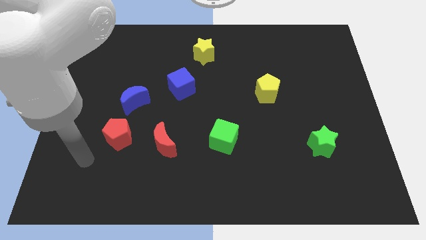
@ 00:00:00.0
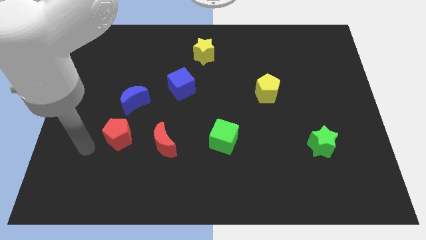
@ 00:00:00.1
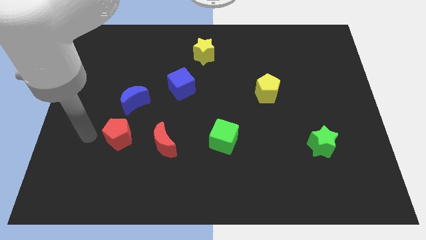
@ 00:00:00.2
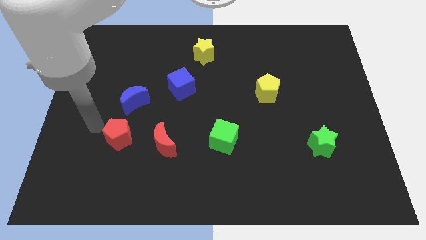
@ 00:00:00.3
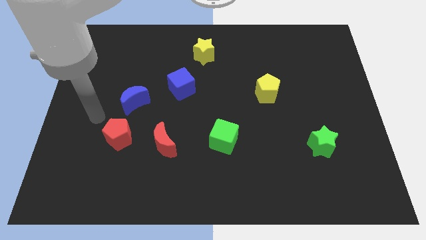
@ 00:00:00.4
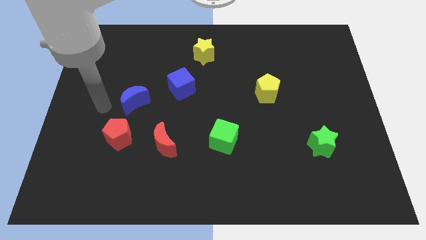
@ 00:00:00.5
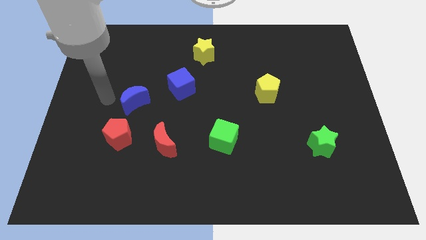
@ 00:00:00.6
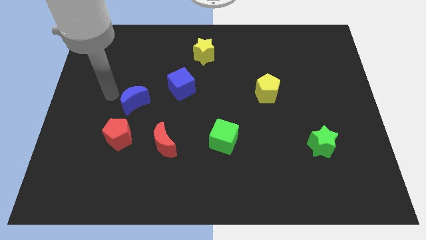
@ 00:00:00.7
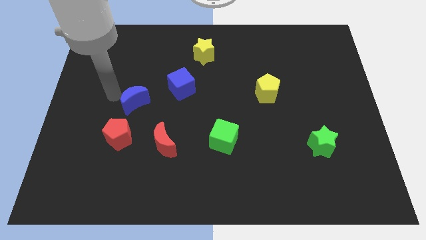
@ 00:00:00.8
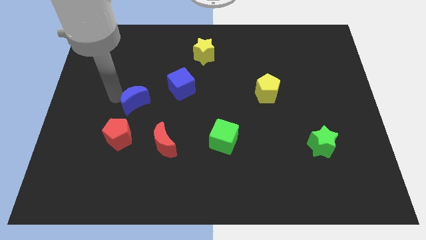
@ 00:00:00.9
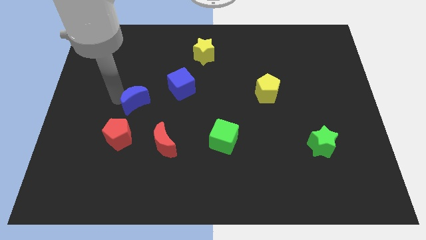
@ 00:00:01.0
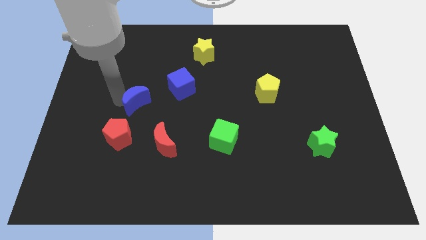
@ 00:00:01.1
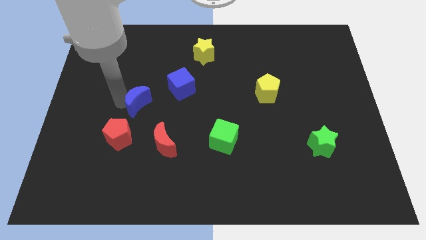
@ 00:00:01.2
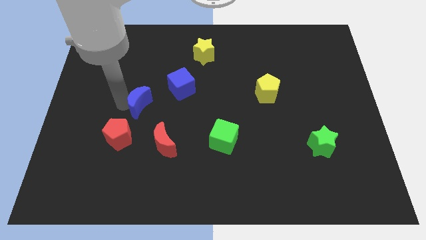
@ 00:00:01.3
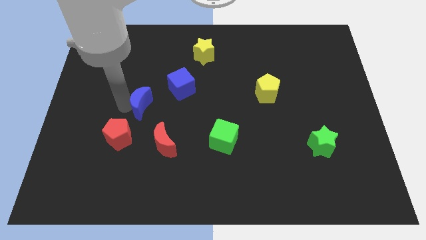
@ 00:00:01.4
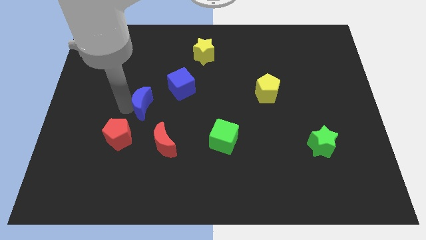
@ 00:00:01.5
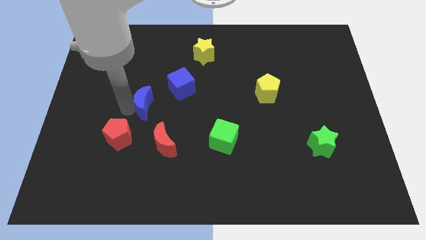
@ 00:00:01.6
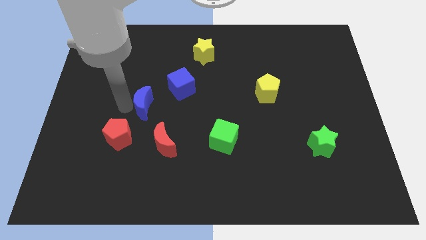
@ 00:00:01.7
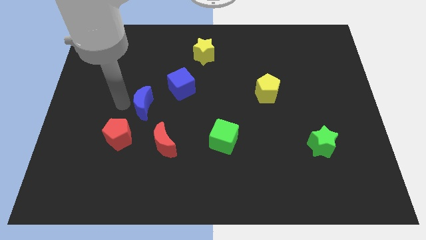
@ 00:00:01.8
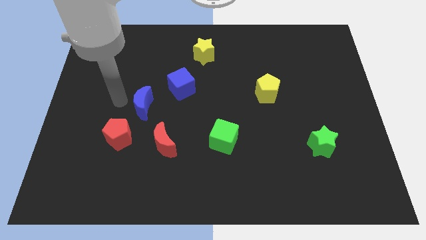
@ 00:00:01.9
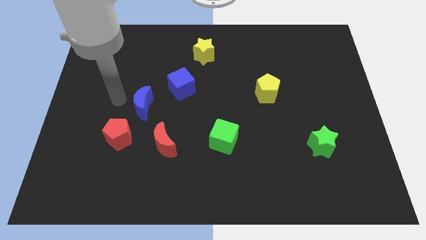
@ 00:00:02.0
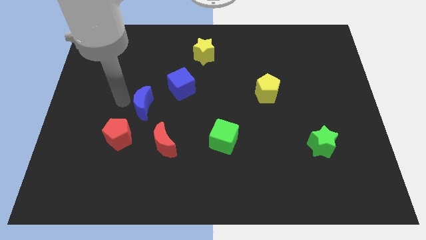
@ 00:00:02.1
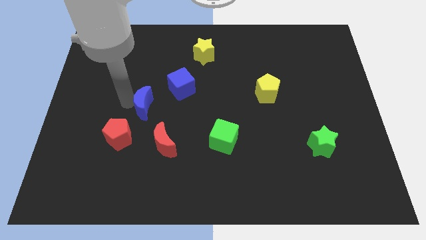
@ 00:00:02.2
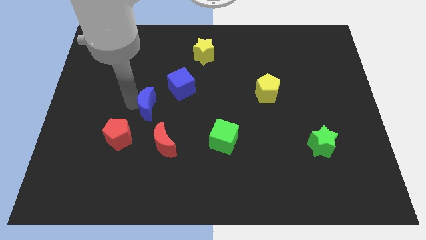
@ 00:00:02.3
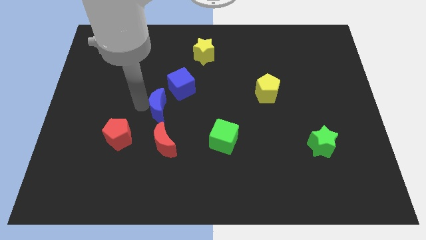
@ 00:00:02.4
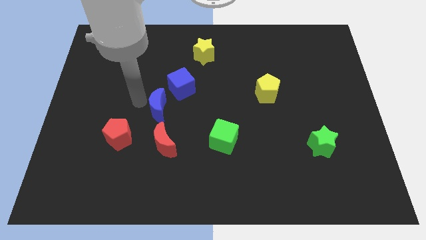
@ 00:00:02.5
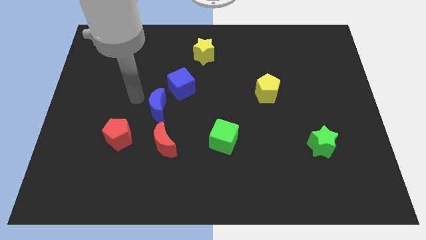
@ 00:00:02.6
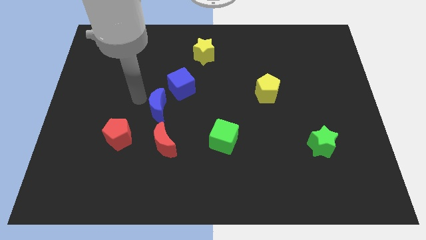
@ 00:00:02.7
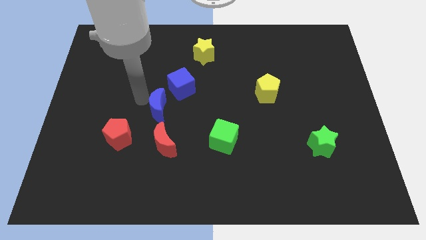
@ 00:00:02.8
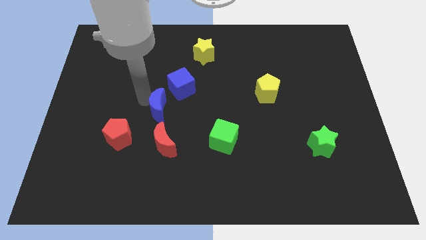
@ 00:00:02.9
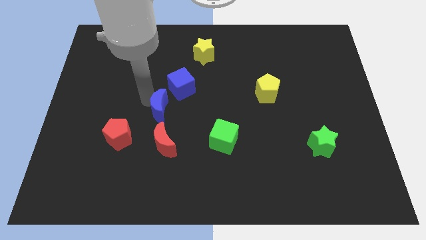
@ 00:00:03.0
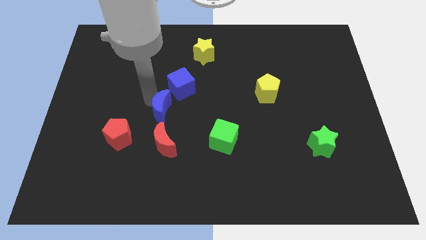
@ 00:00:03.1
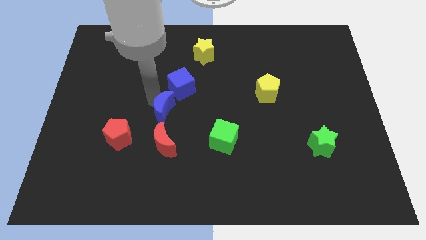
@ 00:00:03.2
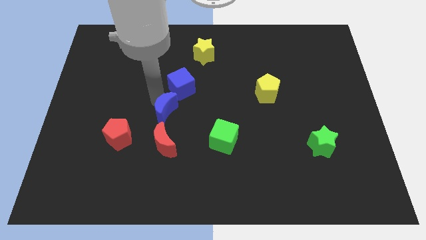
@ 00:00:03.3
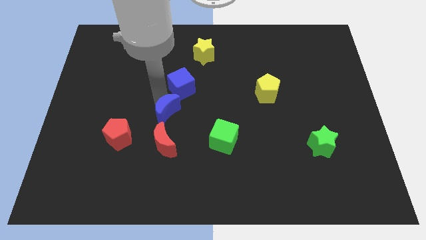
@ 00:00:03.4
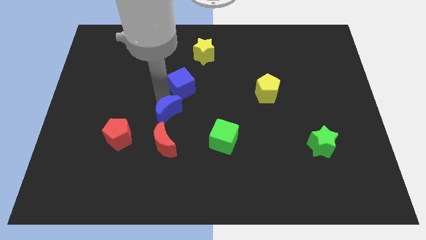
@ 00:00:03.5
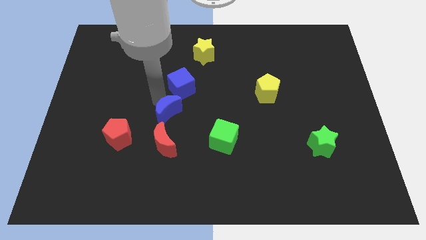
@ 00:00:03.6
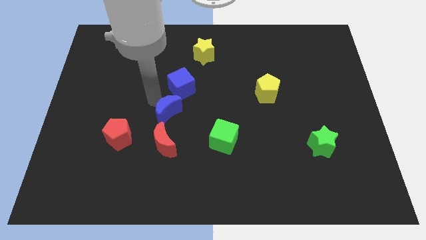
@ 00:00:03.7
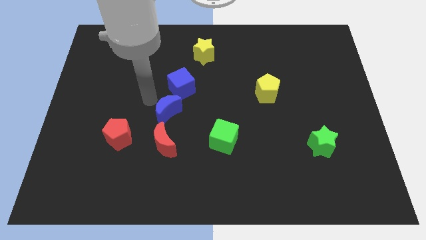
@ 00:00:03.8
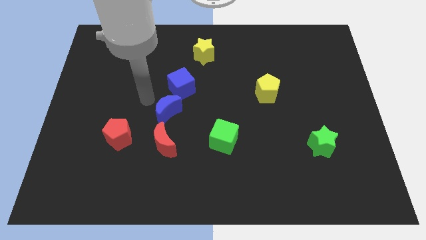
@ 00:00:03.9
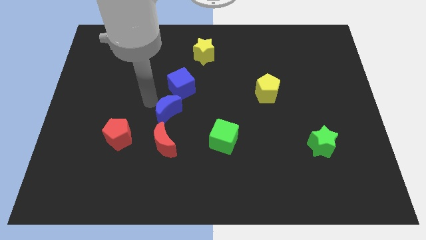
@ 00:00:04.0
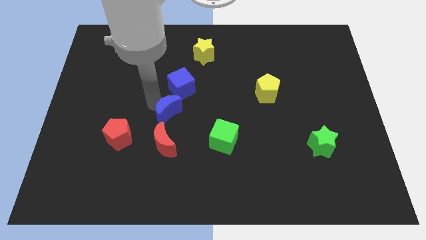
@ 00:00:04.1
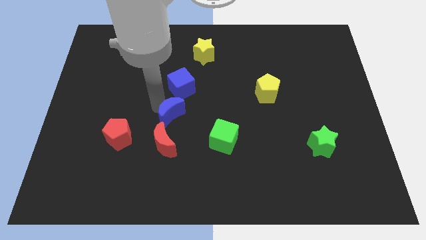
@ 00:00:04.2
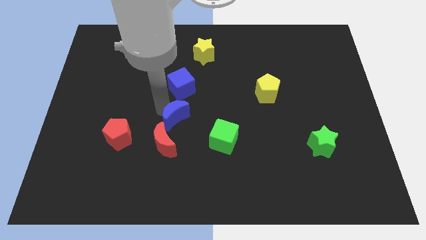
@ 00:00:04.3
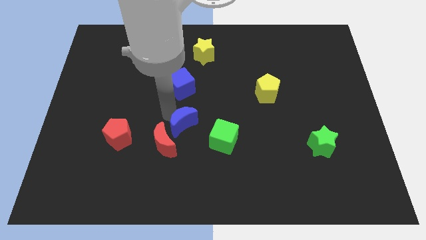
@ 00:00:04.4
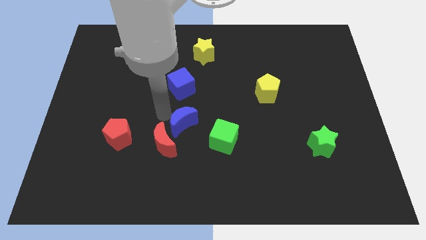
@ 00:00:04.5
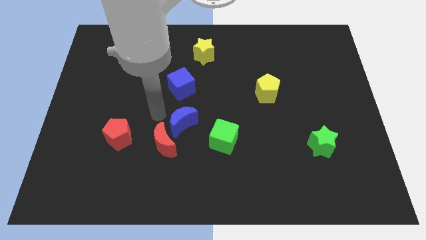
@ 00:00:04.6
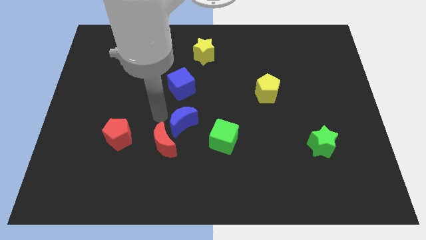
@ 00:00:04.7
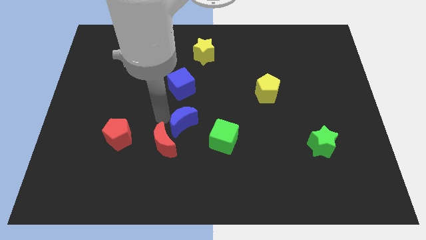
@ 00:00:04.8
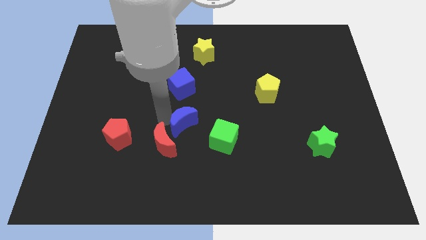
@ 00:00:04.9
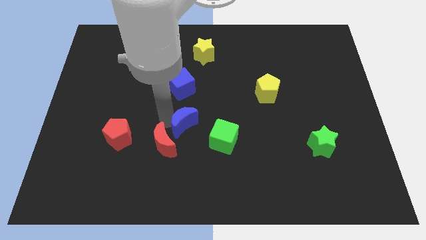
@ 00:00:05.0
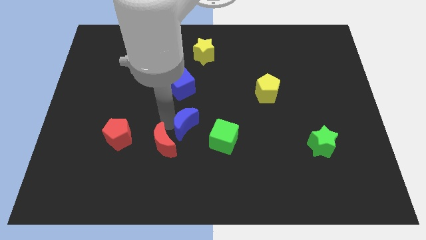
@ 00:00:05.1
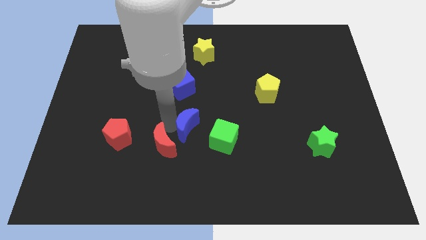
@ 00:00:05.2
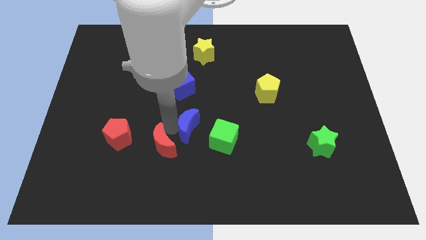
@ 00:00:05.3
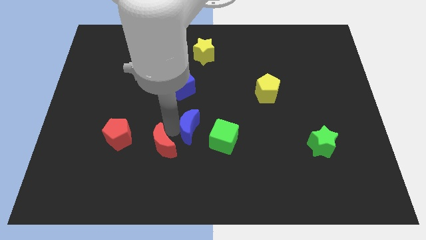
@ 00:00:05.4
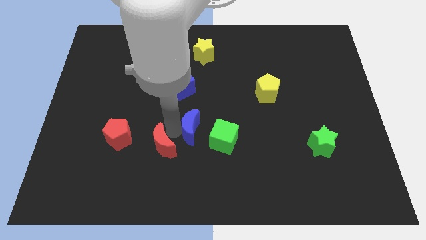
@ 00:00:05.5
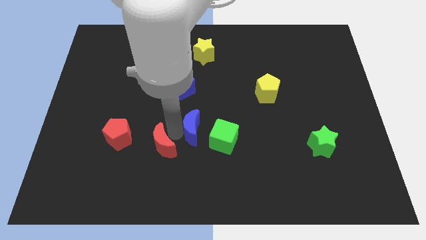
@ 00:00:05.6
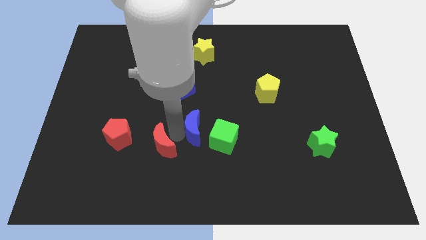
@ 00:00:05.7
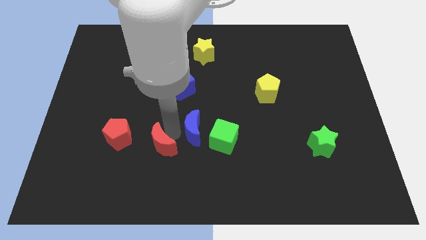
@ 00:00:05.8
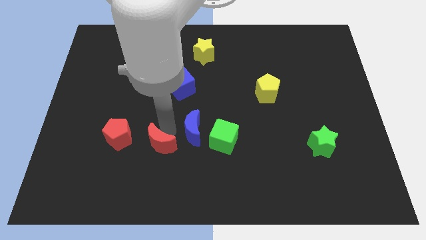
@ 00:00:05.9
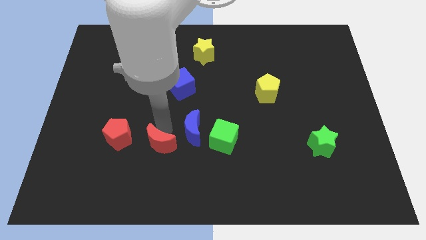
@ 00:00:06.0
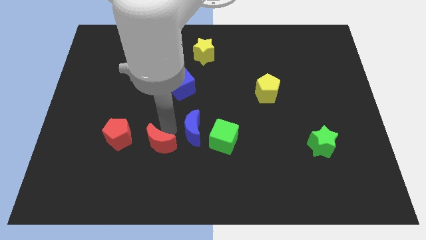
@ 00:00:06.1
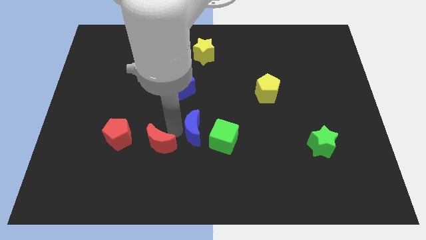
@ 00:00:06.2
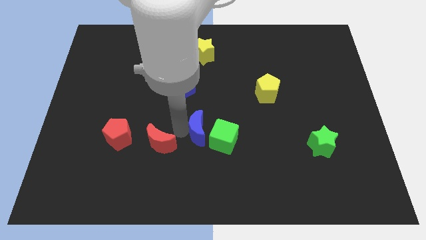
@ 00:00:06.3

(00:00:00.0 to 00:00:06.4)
move the blue moon next to the green cube
